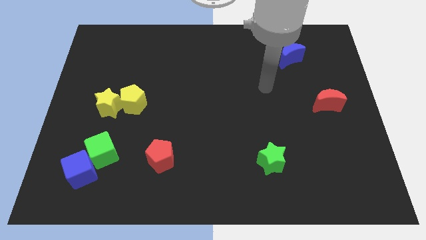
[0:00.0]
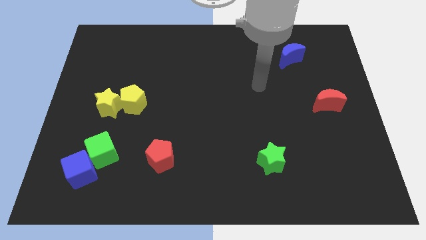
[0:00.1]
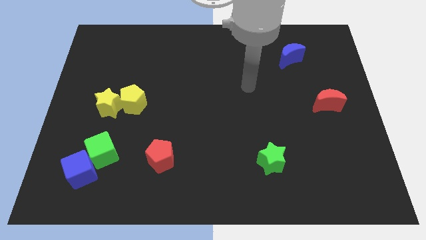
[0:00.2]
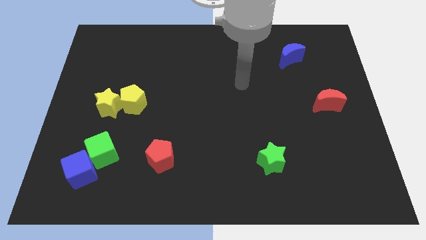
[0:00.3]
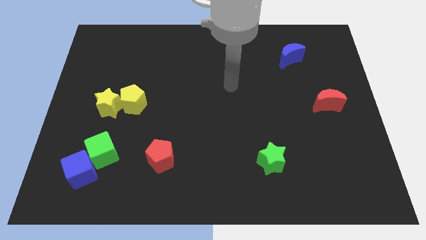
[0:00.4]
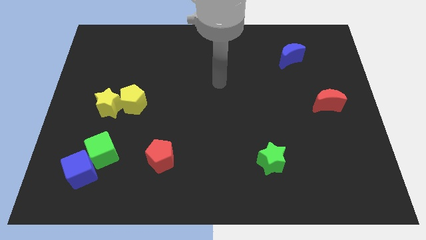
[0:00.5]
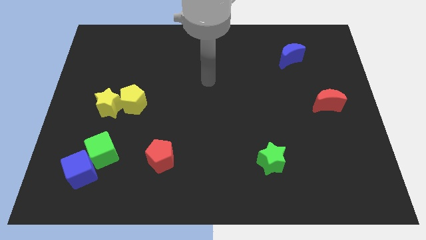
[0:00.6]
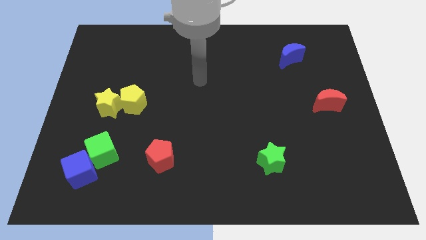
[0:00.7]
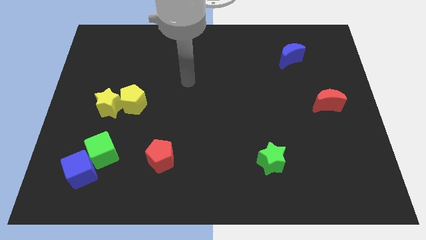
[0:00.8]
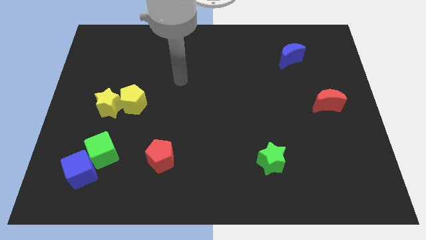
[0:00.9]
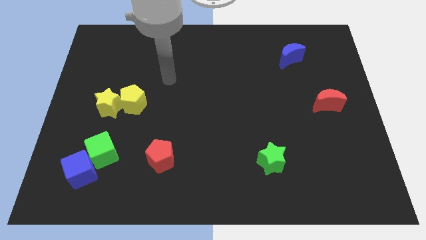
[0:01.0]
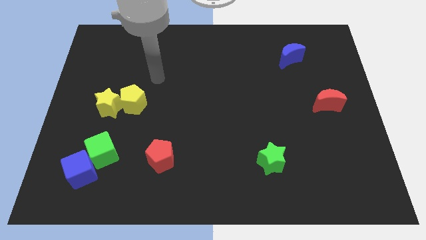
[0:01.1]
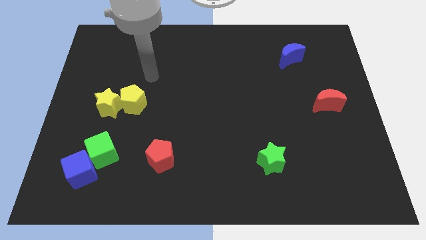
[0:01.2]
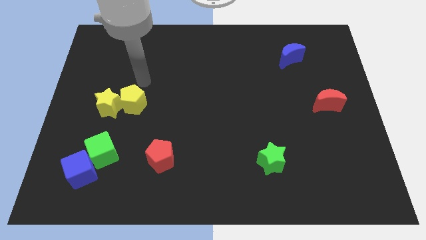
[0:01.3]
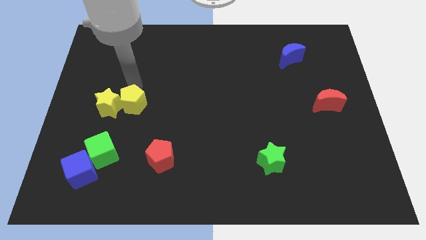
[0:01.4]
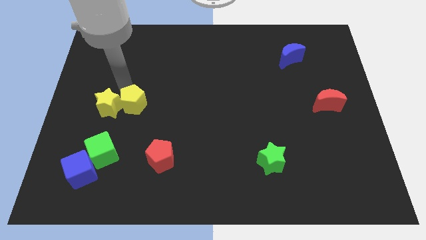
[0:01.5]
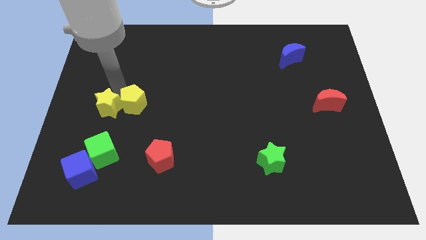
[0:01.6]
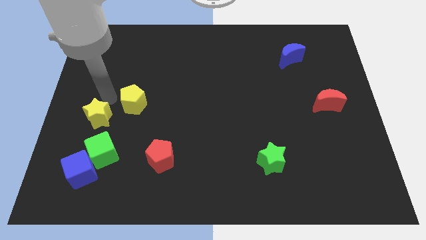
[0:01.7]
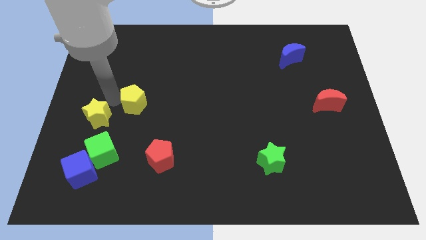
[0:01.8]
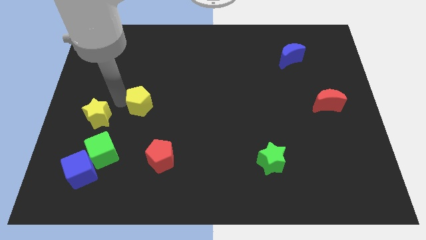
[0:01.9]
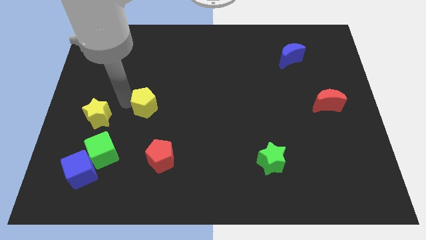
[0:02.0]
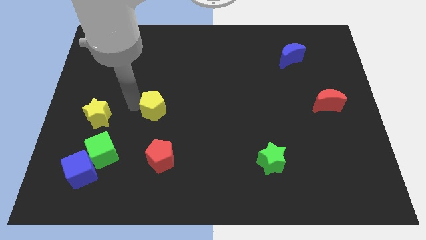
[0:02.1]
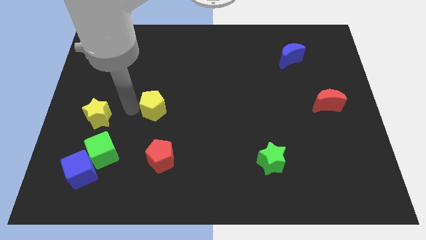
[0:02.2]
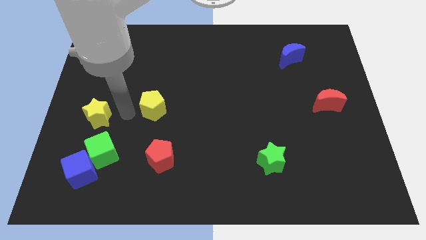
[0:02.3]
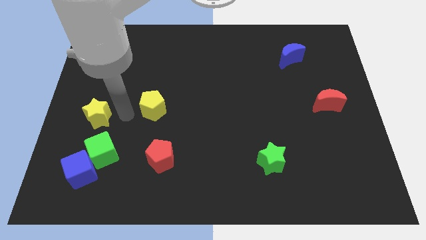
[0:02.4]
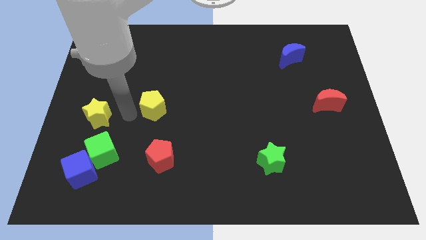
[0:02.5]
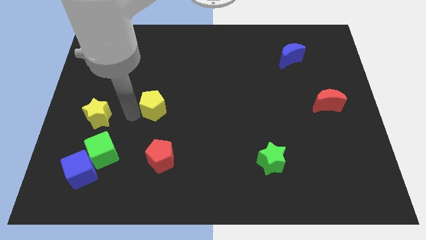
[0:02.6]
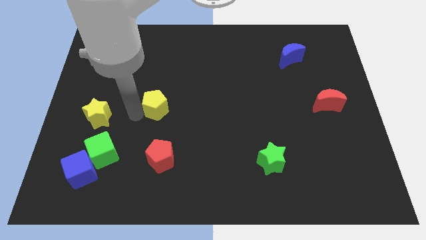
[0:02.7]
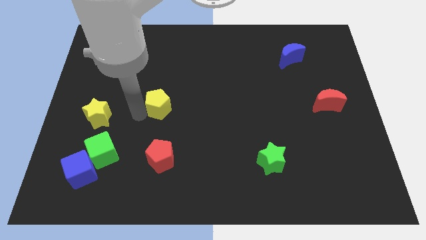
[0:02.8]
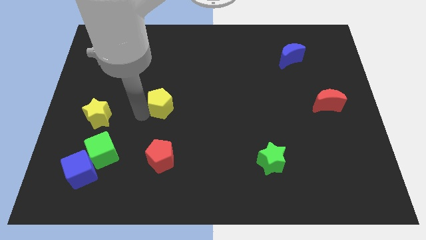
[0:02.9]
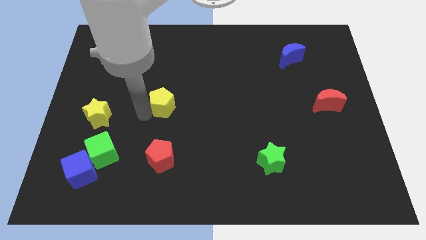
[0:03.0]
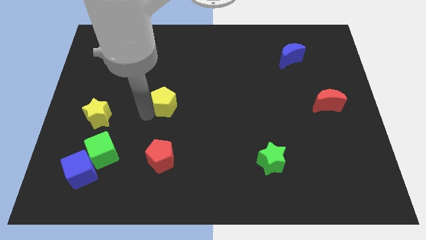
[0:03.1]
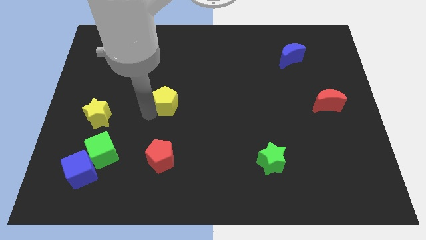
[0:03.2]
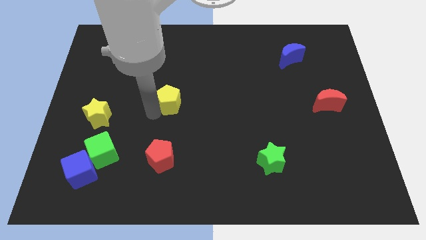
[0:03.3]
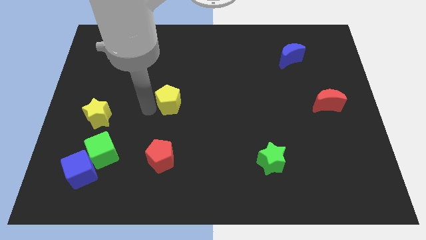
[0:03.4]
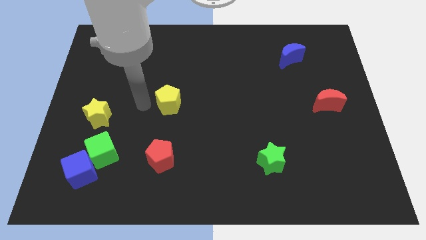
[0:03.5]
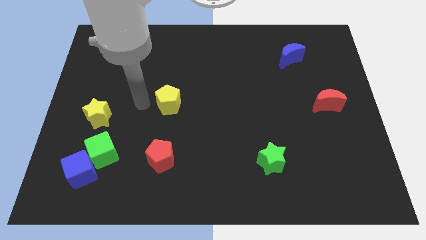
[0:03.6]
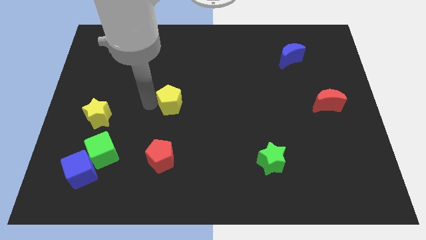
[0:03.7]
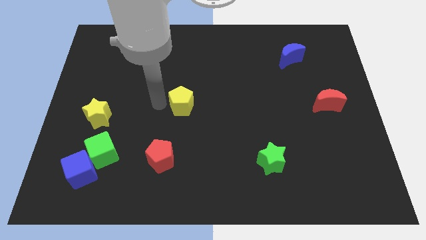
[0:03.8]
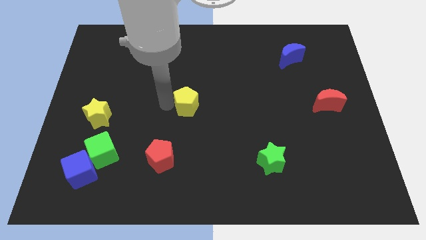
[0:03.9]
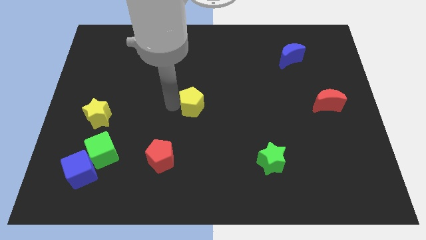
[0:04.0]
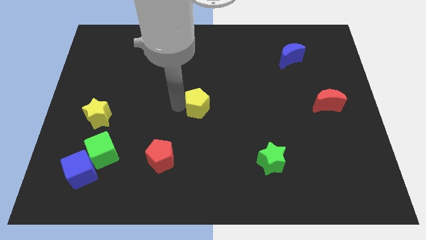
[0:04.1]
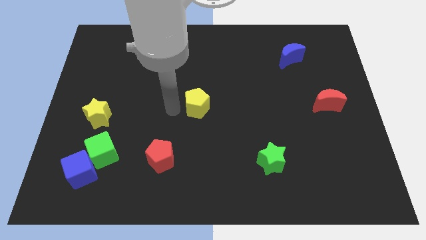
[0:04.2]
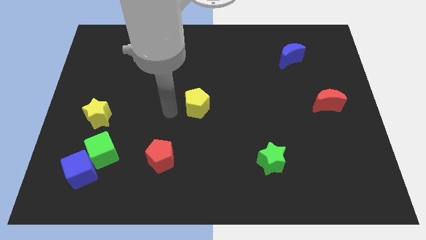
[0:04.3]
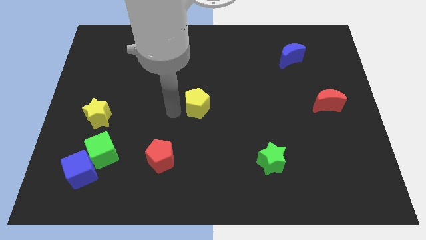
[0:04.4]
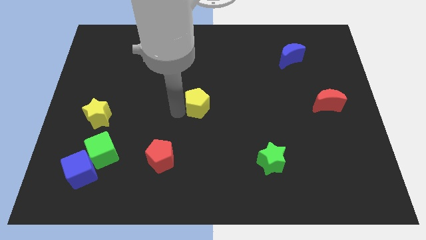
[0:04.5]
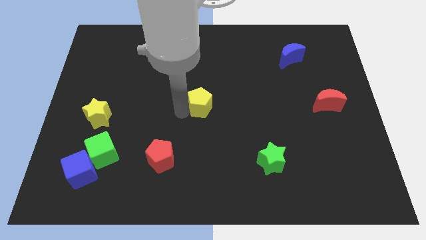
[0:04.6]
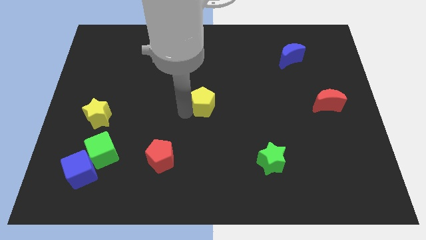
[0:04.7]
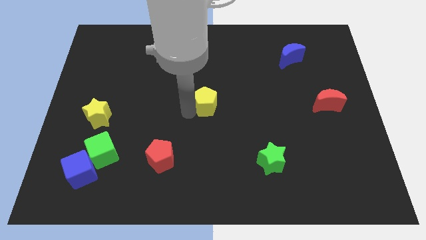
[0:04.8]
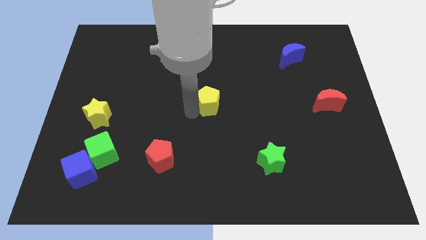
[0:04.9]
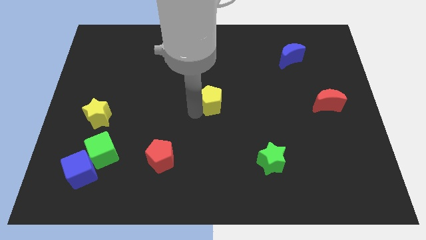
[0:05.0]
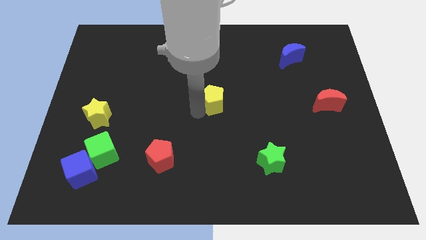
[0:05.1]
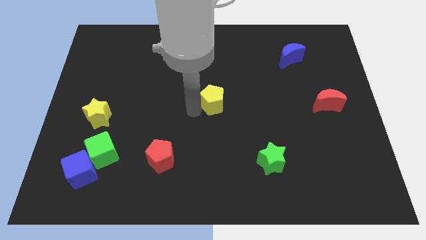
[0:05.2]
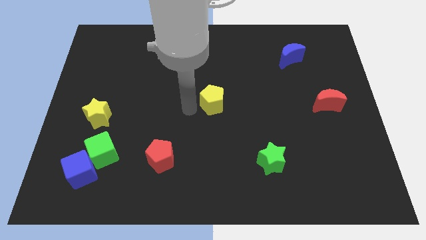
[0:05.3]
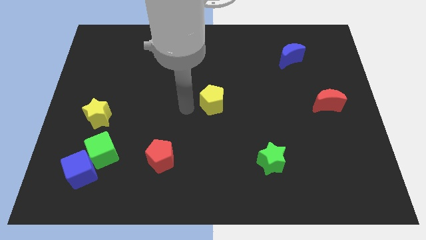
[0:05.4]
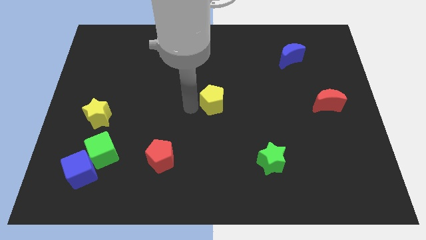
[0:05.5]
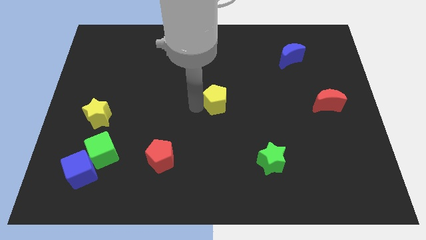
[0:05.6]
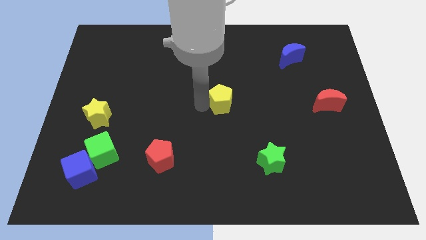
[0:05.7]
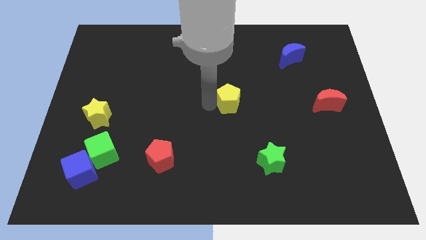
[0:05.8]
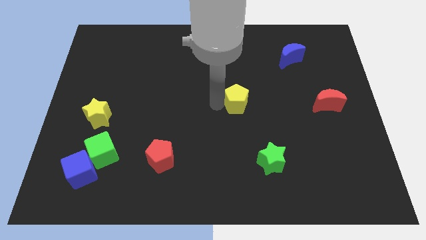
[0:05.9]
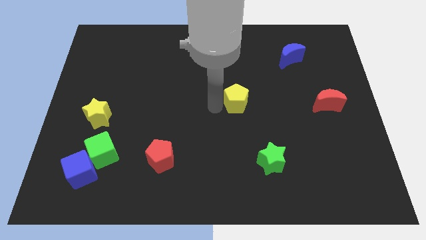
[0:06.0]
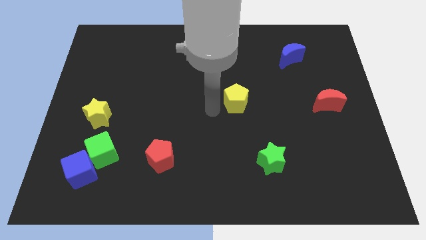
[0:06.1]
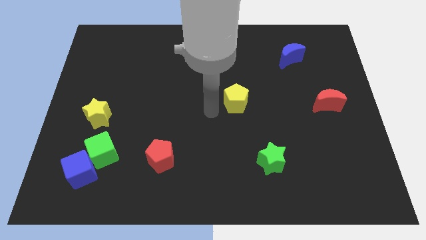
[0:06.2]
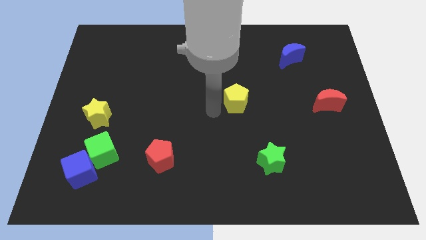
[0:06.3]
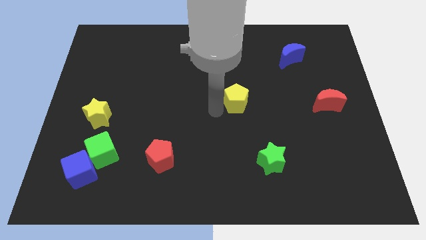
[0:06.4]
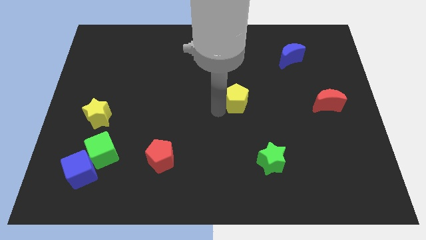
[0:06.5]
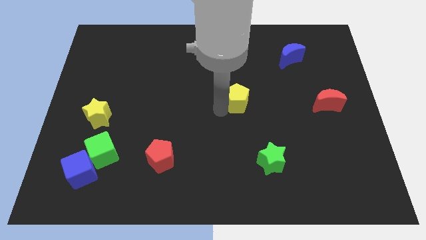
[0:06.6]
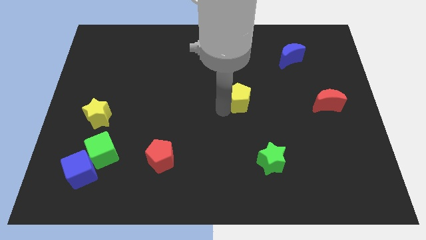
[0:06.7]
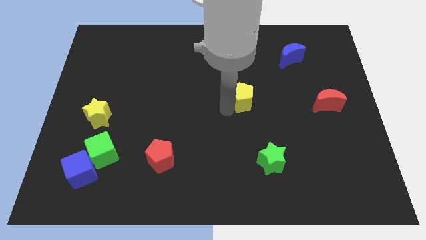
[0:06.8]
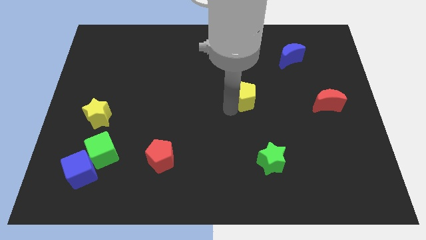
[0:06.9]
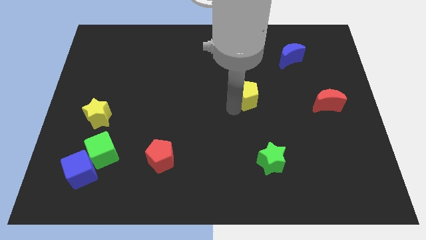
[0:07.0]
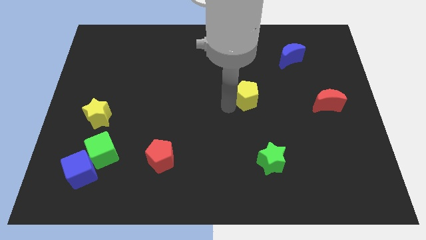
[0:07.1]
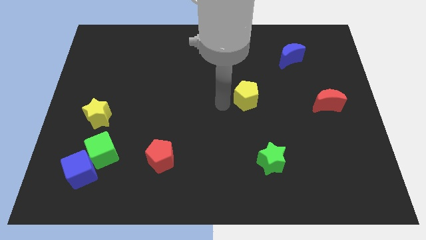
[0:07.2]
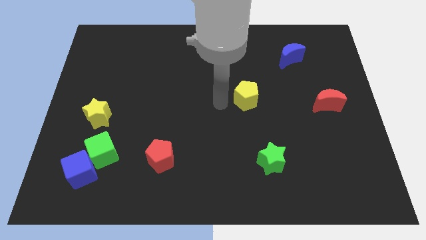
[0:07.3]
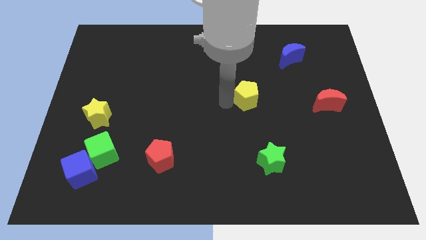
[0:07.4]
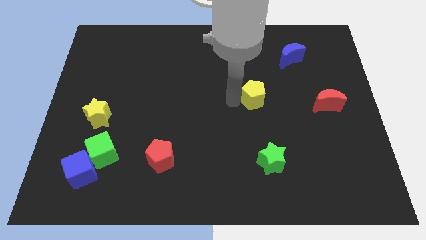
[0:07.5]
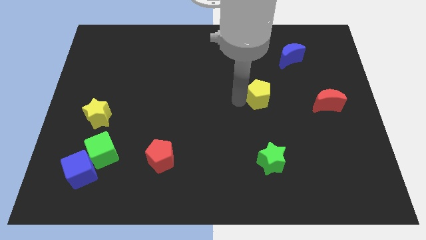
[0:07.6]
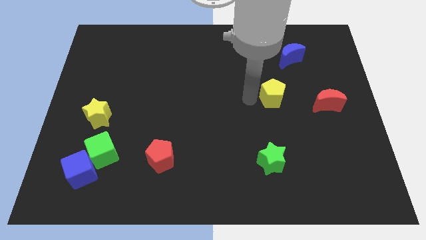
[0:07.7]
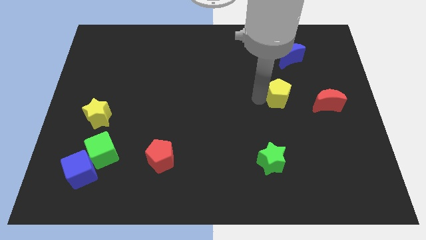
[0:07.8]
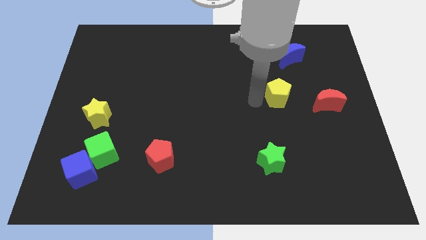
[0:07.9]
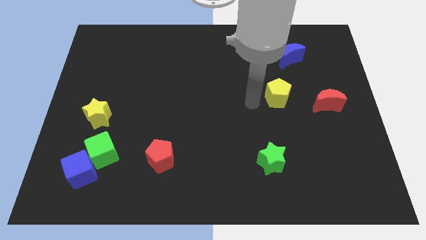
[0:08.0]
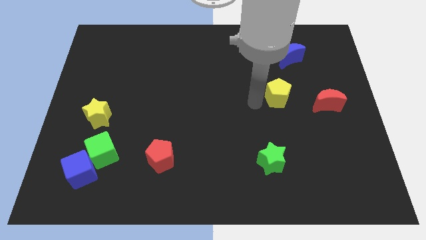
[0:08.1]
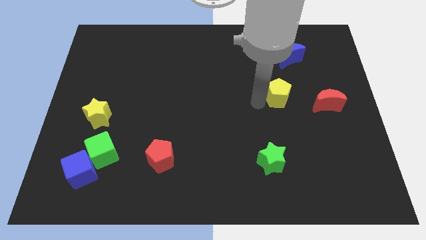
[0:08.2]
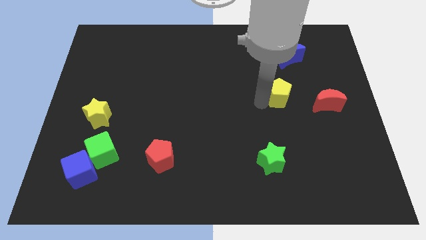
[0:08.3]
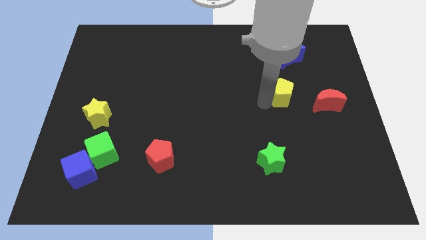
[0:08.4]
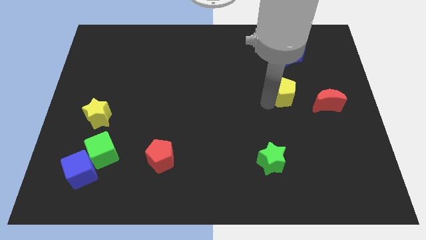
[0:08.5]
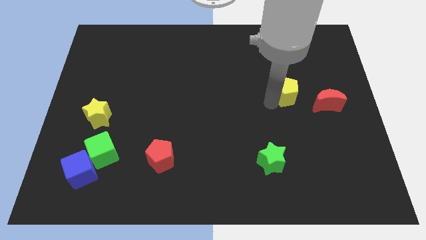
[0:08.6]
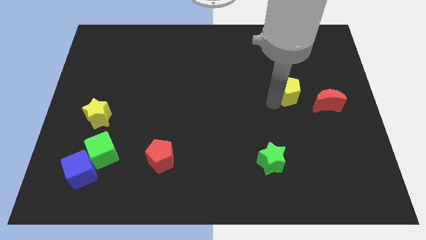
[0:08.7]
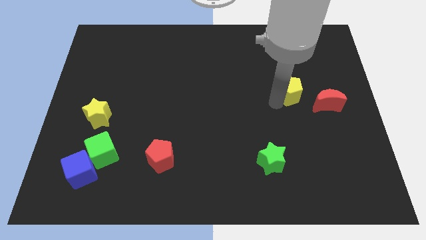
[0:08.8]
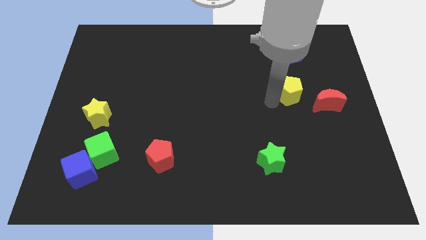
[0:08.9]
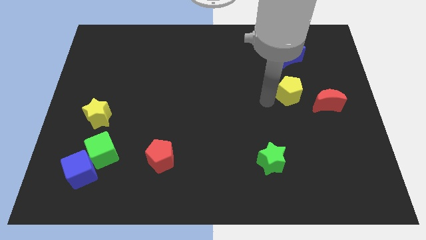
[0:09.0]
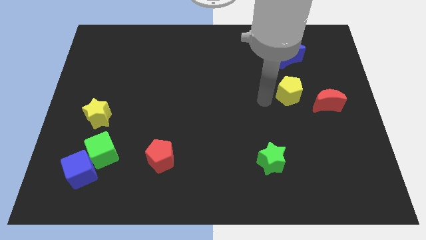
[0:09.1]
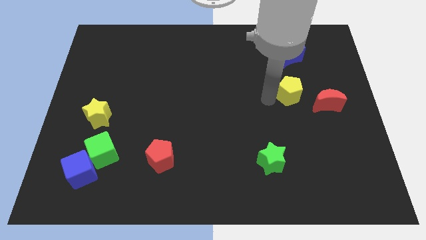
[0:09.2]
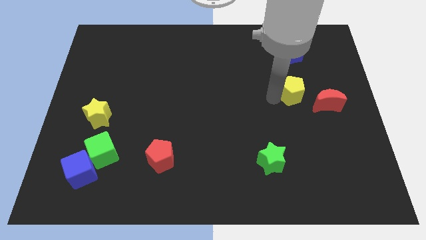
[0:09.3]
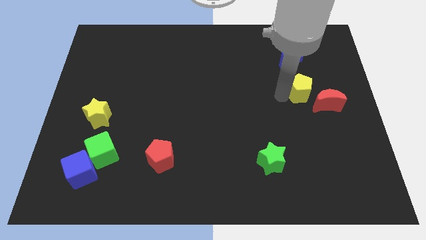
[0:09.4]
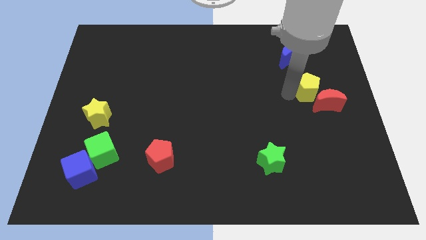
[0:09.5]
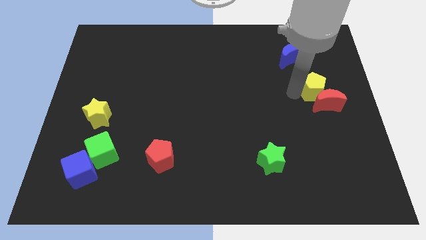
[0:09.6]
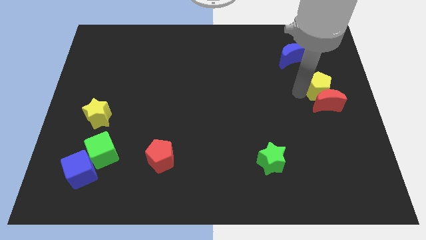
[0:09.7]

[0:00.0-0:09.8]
put the yellow pentagon to the right side of the board
